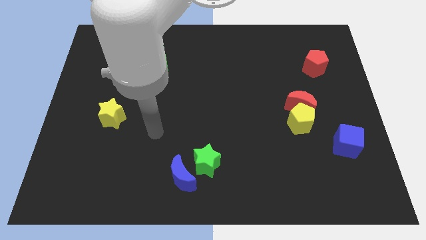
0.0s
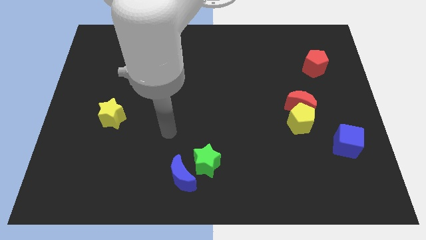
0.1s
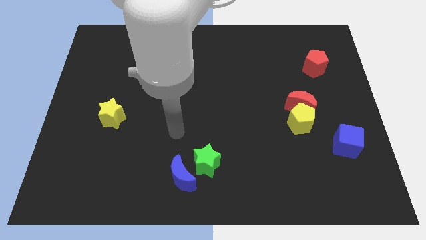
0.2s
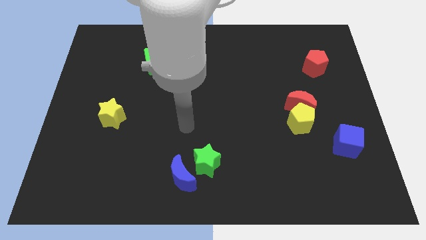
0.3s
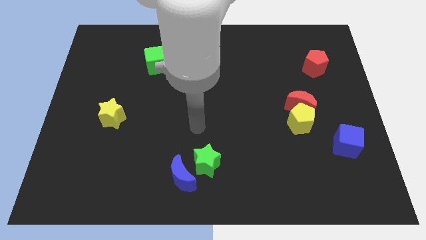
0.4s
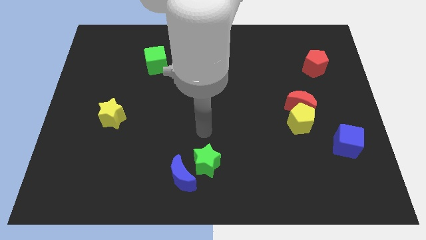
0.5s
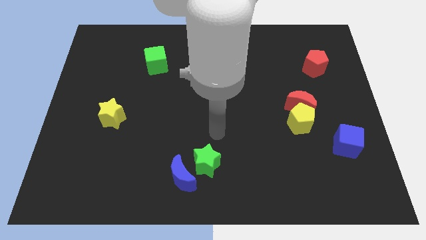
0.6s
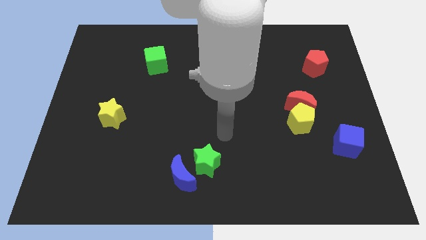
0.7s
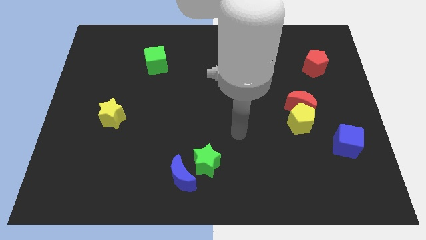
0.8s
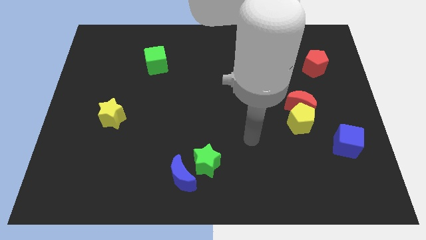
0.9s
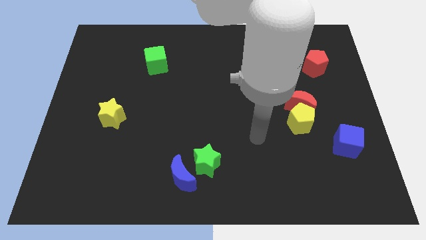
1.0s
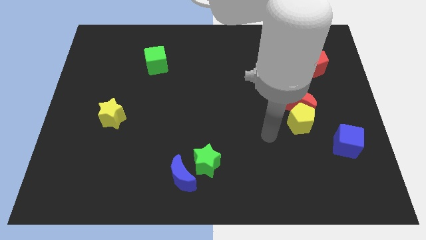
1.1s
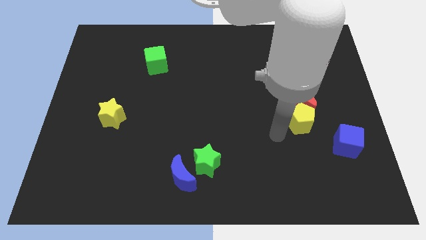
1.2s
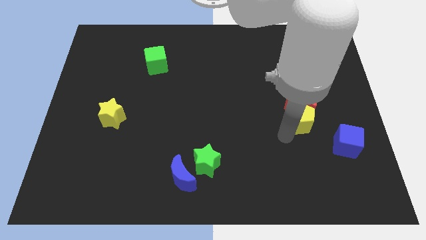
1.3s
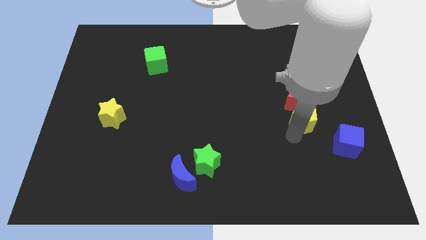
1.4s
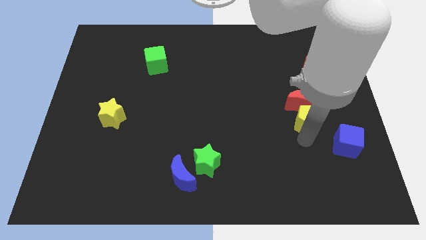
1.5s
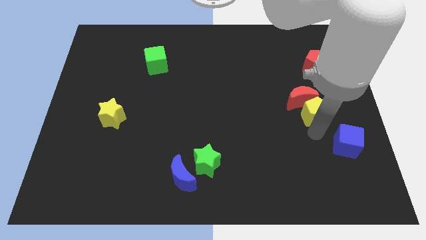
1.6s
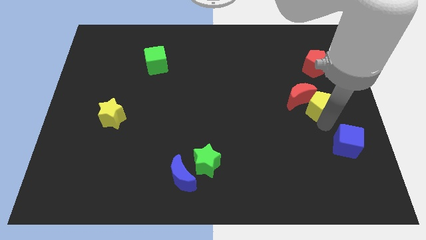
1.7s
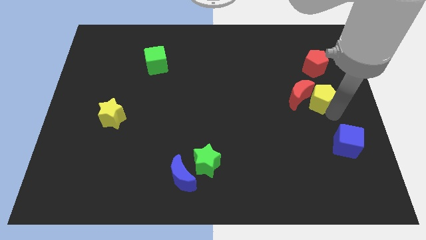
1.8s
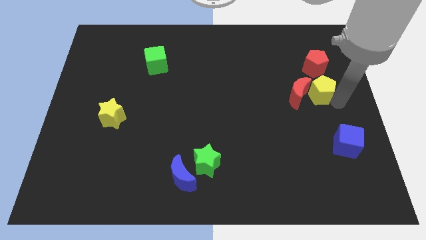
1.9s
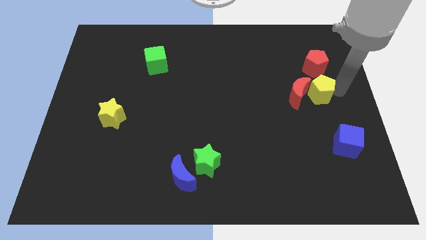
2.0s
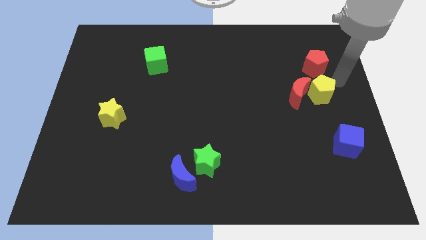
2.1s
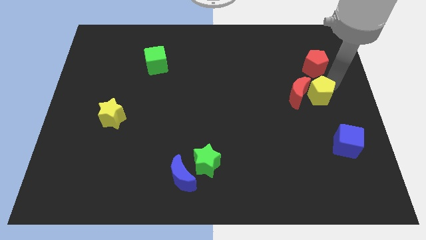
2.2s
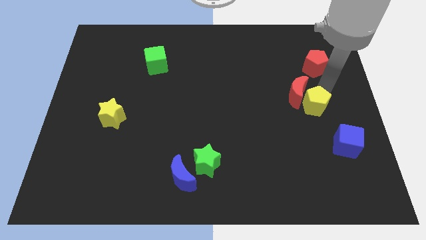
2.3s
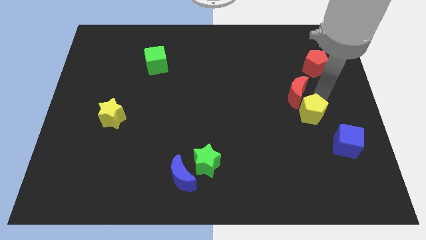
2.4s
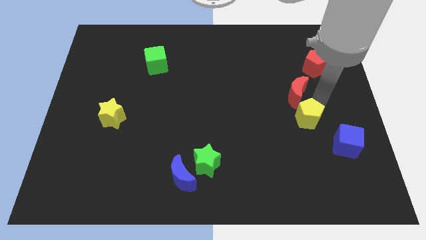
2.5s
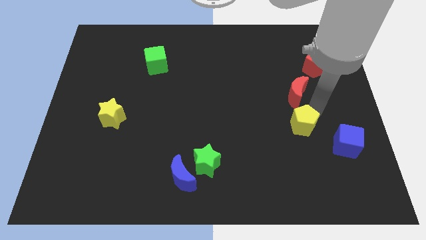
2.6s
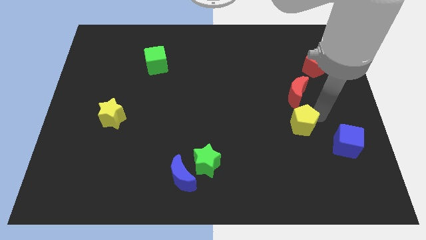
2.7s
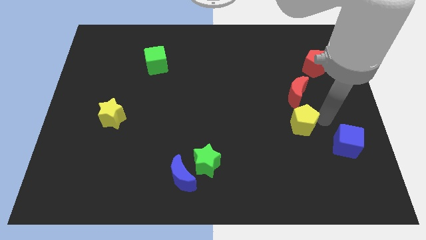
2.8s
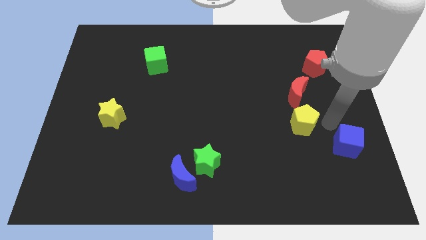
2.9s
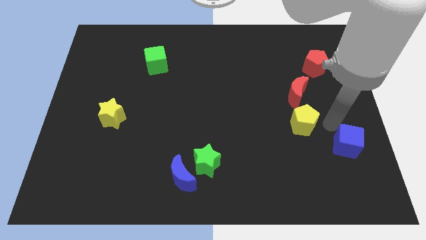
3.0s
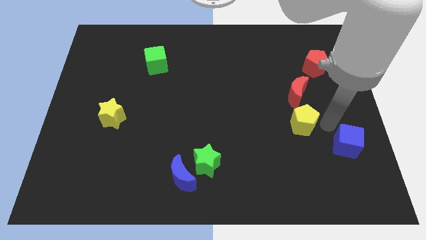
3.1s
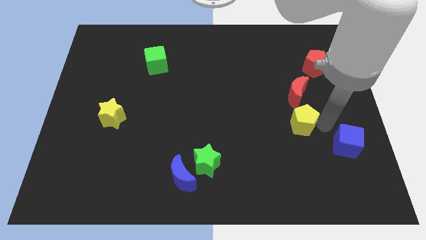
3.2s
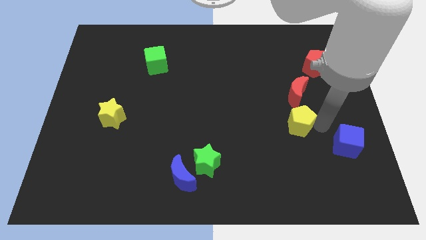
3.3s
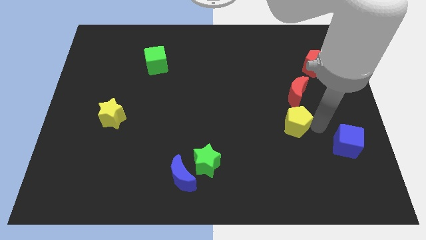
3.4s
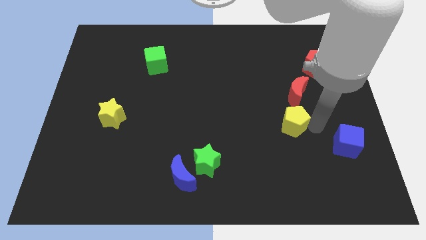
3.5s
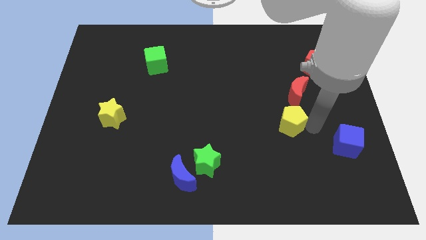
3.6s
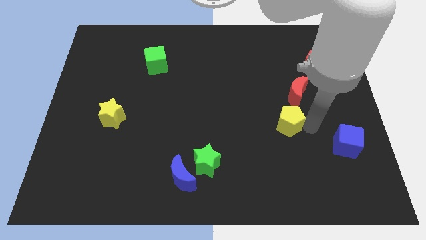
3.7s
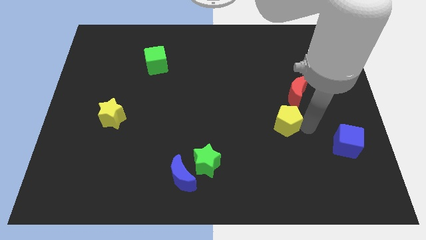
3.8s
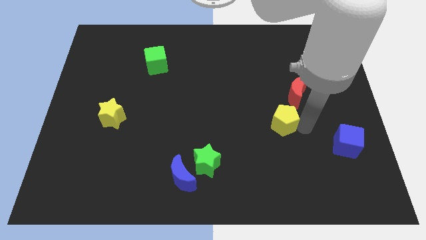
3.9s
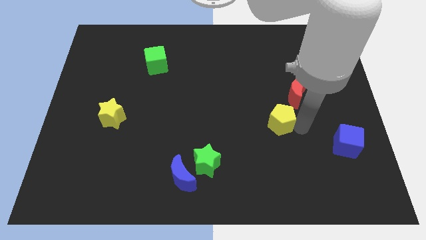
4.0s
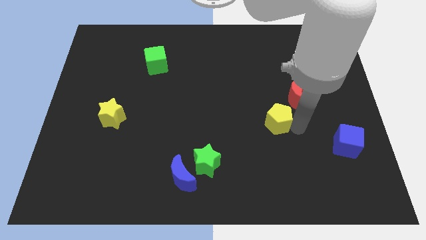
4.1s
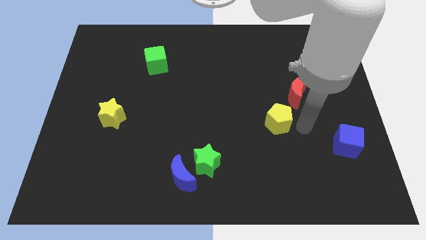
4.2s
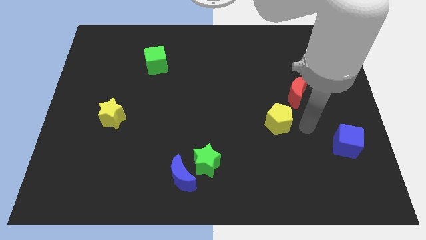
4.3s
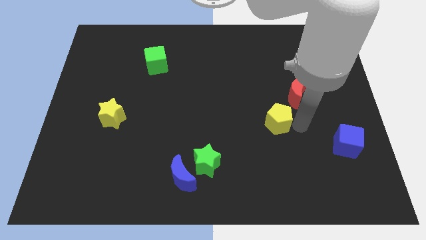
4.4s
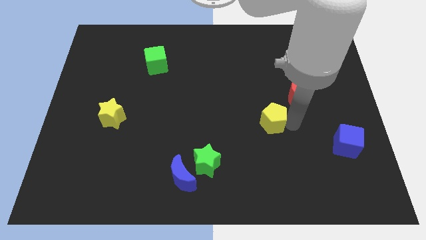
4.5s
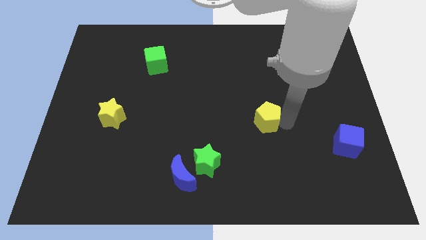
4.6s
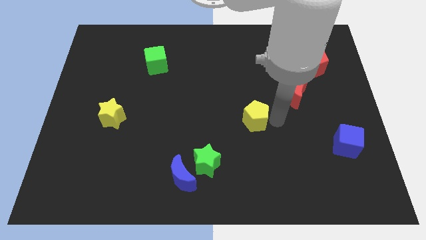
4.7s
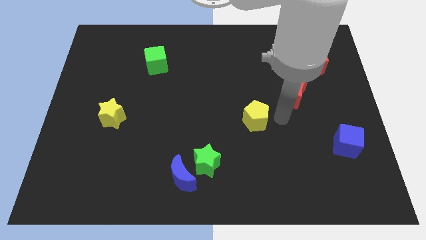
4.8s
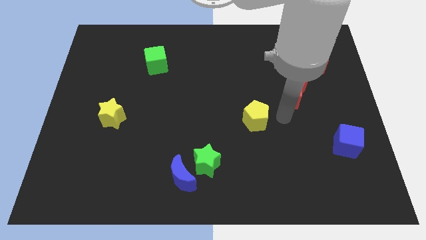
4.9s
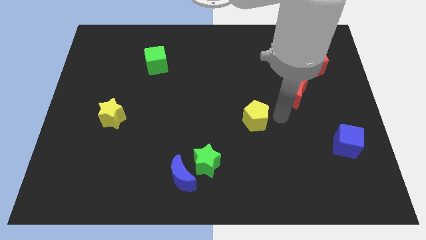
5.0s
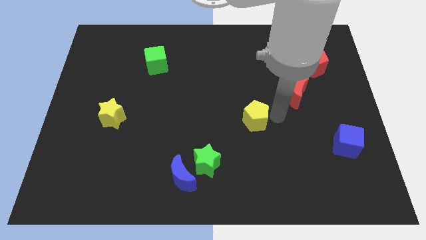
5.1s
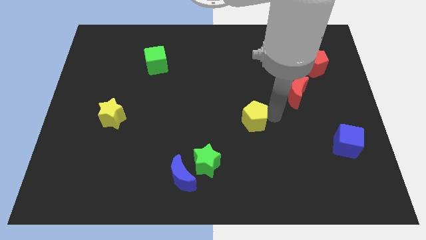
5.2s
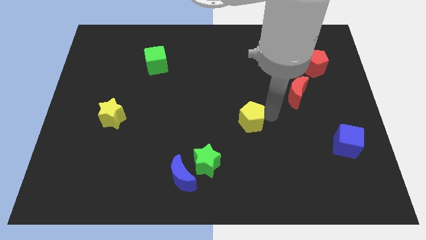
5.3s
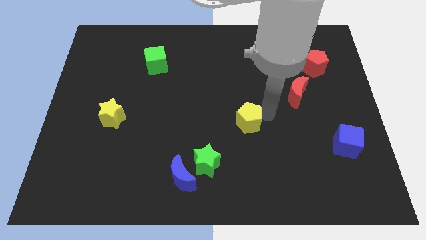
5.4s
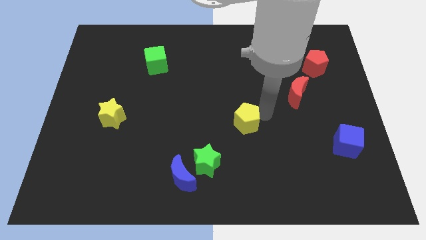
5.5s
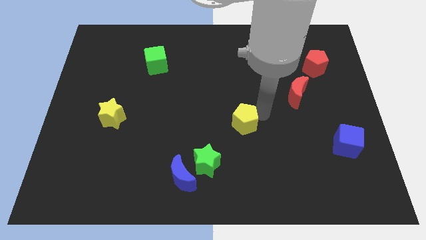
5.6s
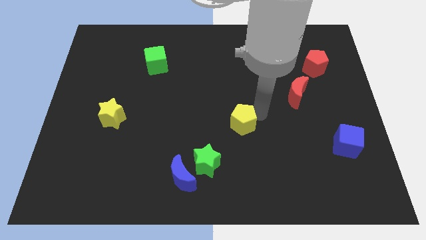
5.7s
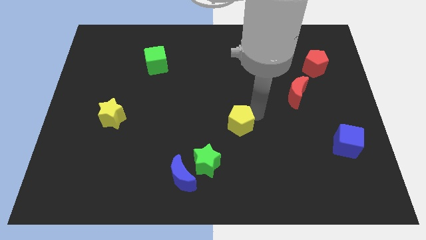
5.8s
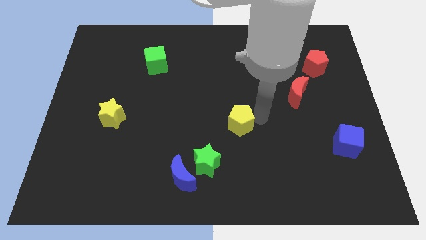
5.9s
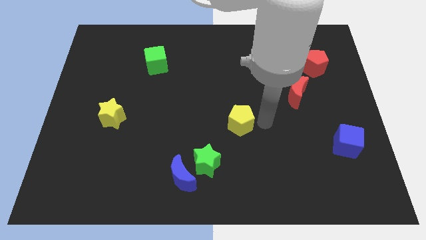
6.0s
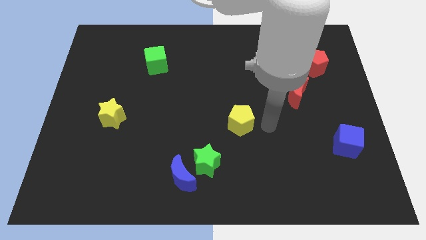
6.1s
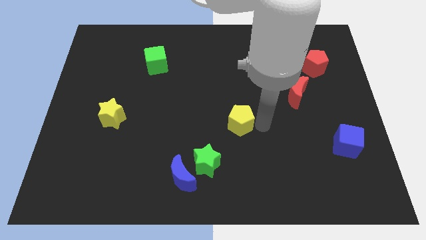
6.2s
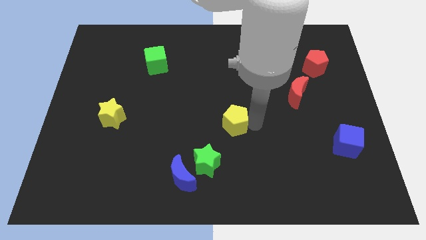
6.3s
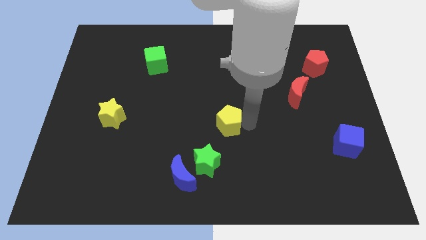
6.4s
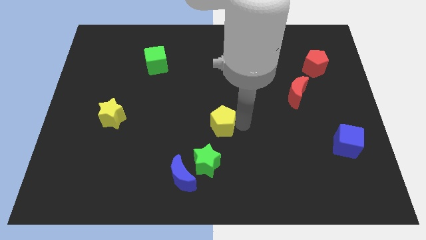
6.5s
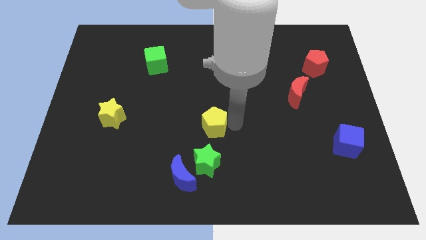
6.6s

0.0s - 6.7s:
push the yellow pentagon to the left

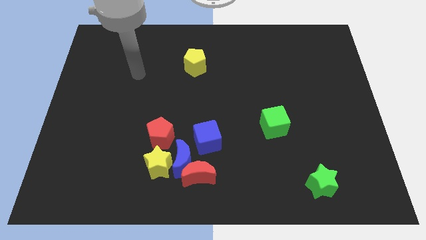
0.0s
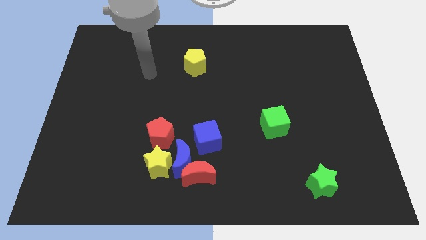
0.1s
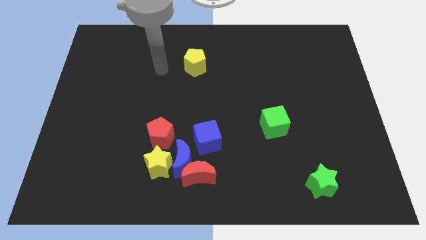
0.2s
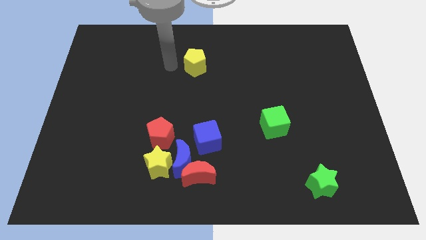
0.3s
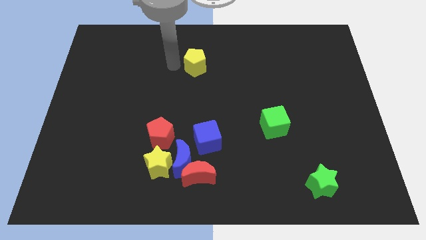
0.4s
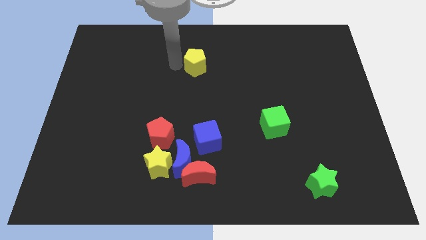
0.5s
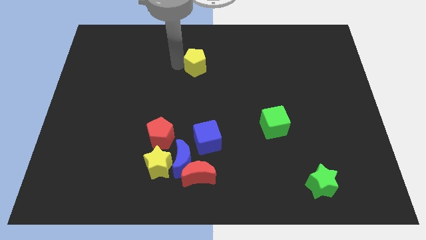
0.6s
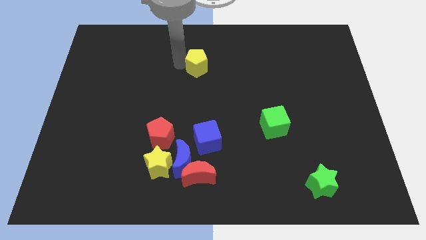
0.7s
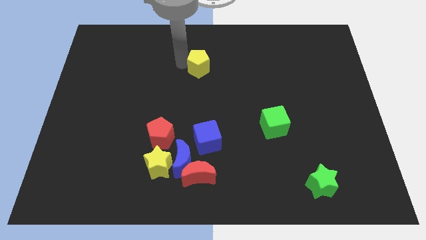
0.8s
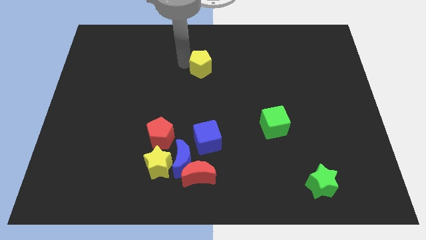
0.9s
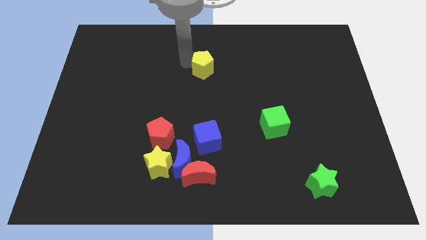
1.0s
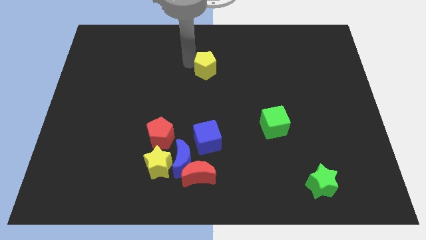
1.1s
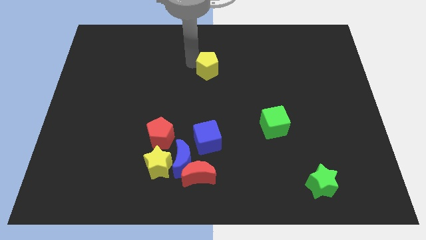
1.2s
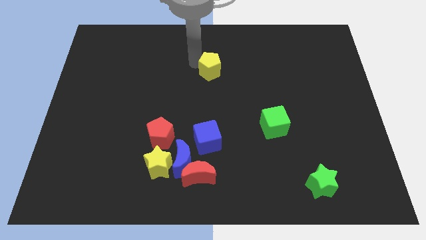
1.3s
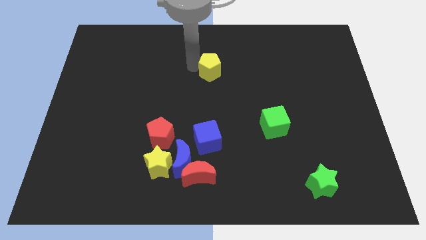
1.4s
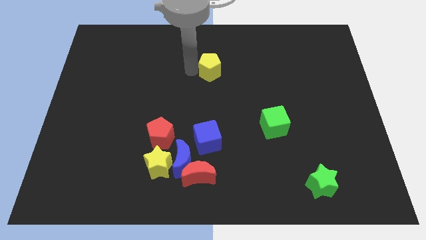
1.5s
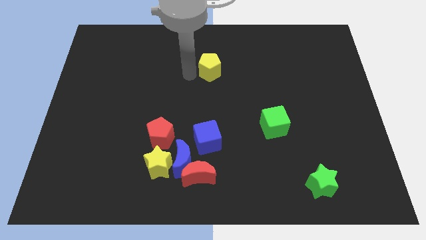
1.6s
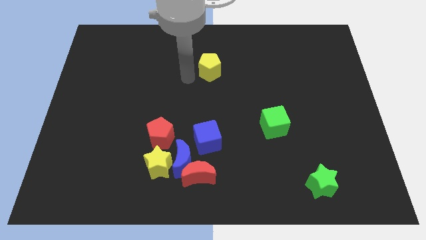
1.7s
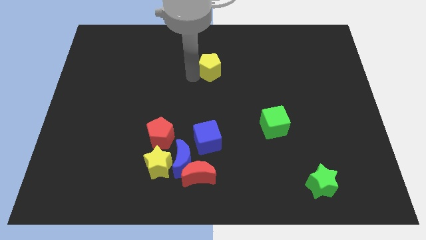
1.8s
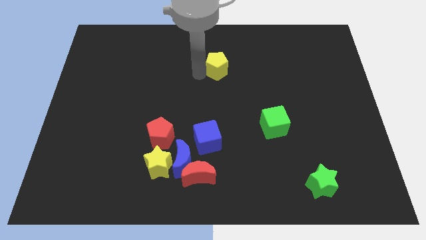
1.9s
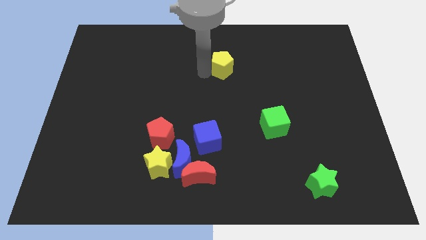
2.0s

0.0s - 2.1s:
move the yellow pentagon somewhat right
